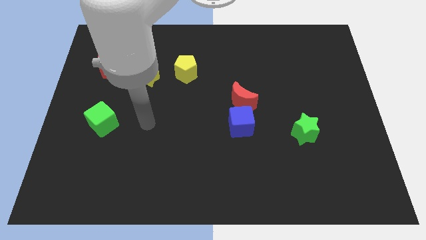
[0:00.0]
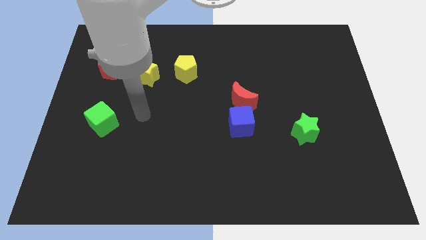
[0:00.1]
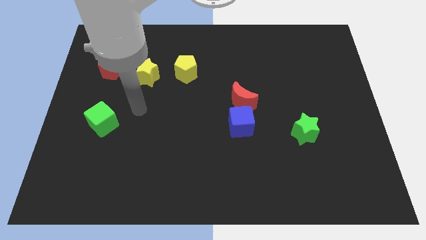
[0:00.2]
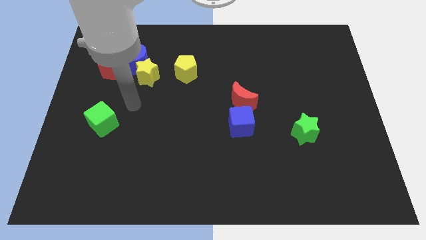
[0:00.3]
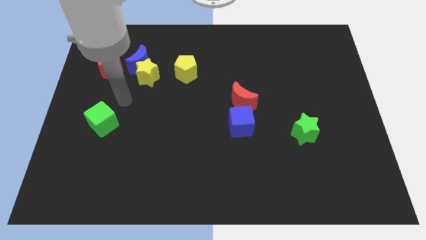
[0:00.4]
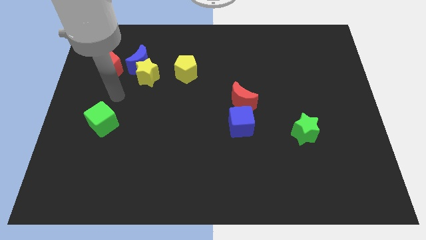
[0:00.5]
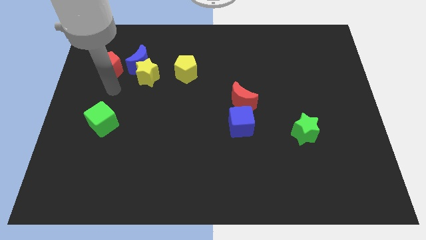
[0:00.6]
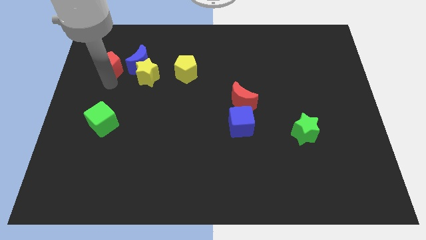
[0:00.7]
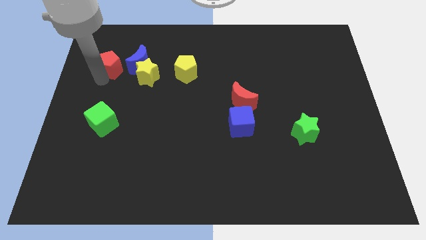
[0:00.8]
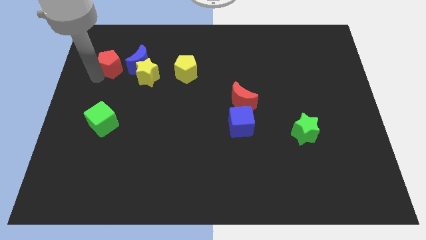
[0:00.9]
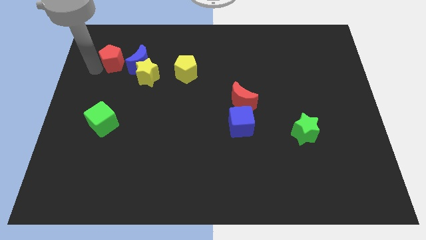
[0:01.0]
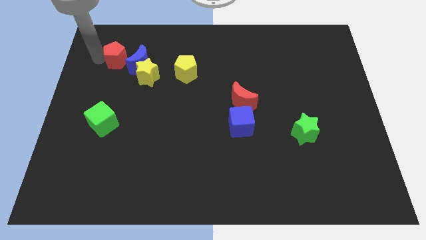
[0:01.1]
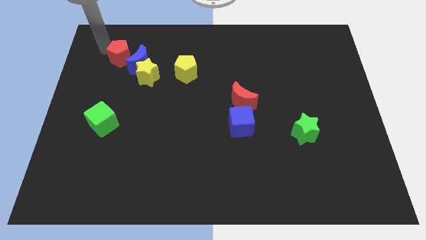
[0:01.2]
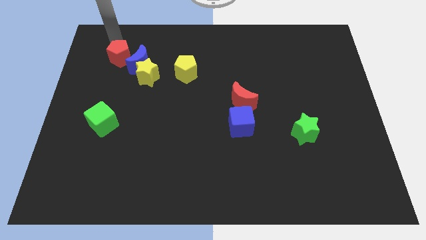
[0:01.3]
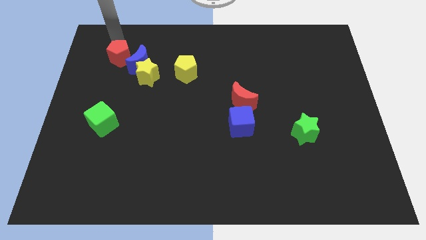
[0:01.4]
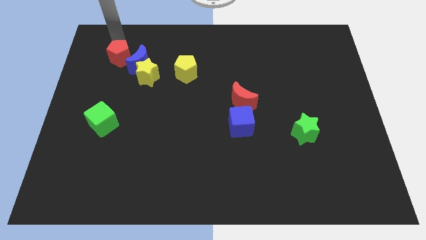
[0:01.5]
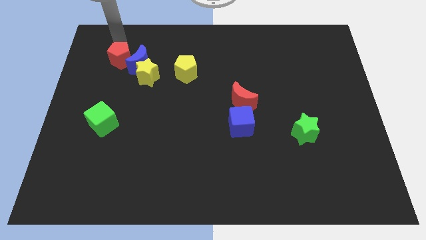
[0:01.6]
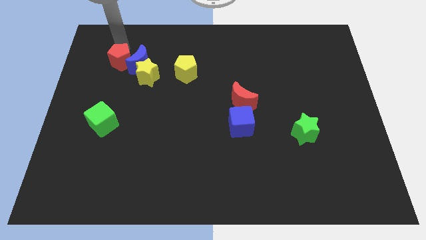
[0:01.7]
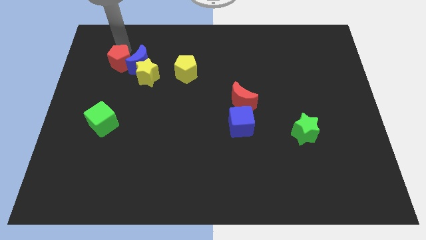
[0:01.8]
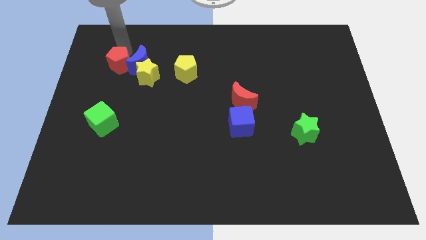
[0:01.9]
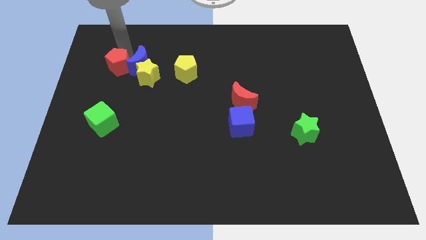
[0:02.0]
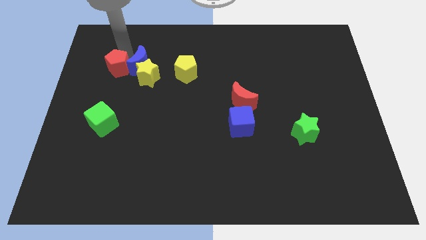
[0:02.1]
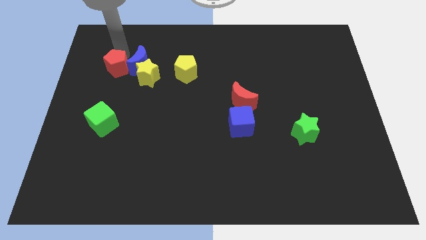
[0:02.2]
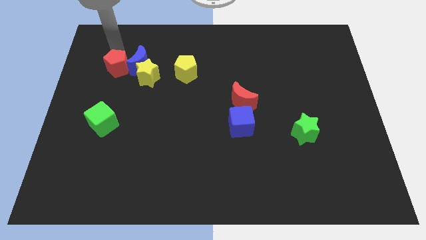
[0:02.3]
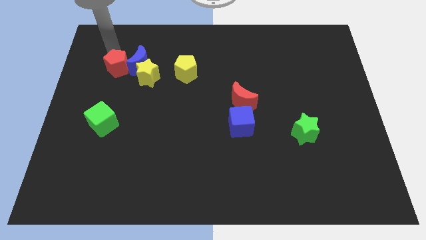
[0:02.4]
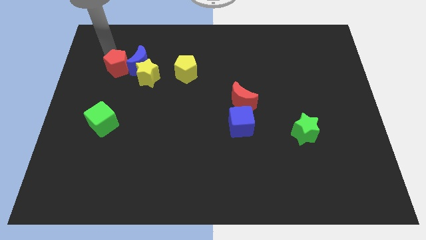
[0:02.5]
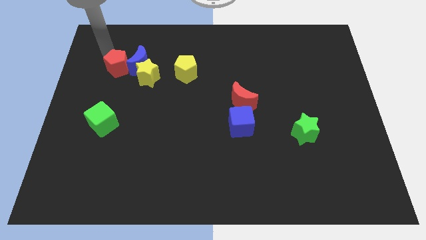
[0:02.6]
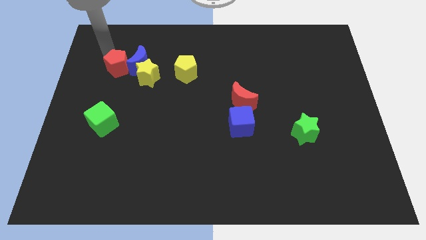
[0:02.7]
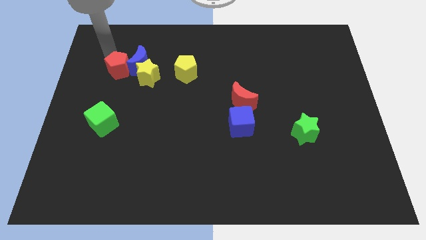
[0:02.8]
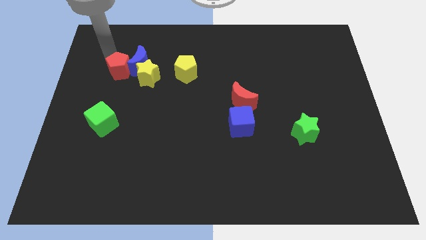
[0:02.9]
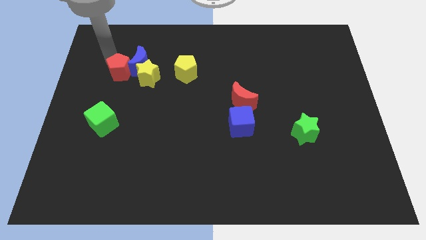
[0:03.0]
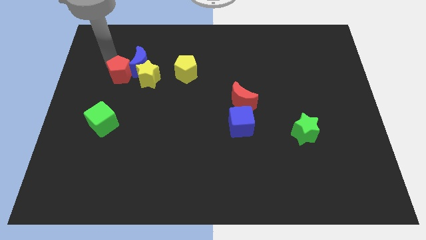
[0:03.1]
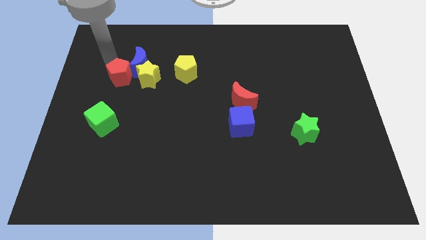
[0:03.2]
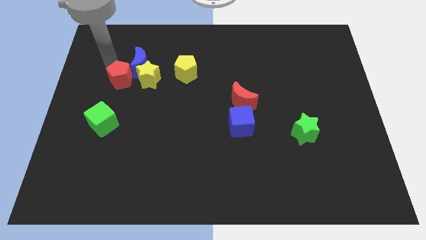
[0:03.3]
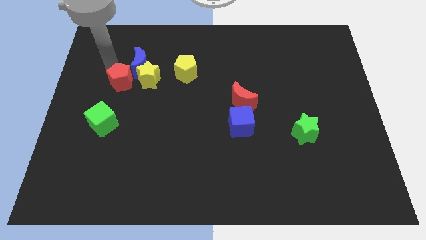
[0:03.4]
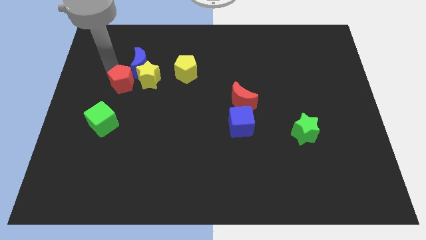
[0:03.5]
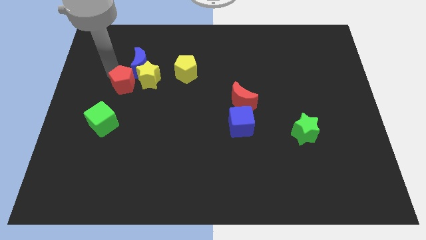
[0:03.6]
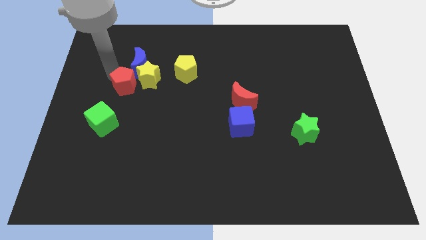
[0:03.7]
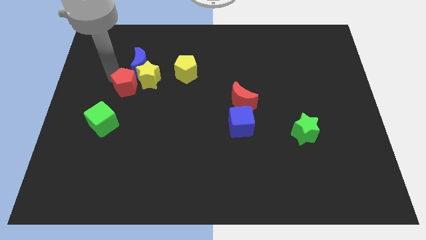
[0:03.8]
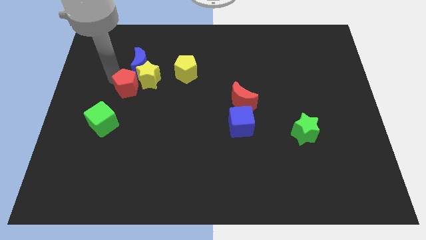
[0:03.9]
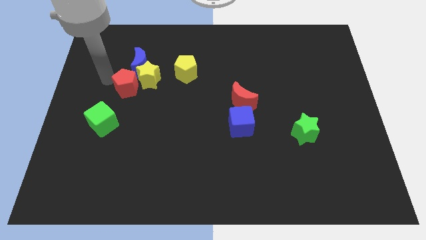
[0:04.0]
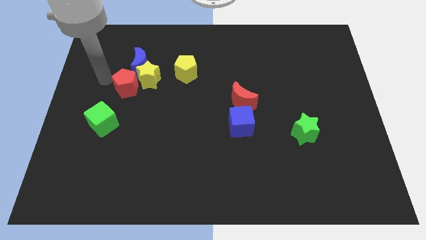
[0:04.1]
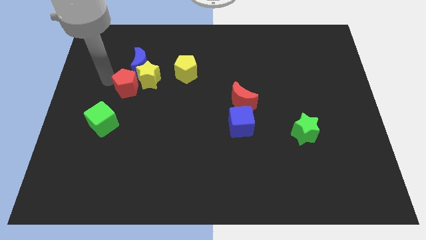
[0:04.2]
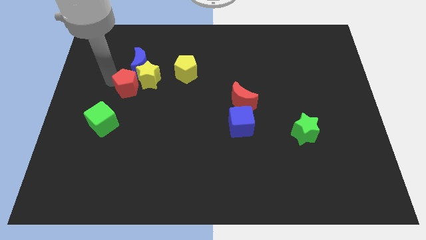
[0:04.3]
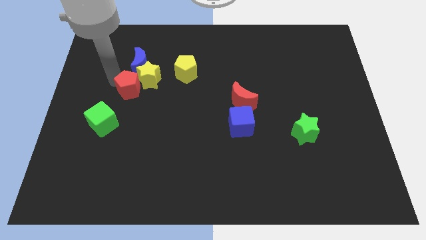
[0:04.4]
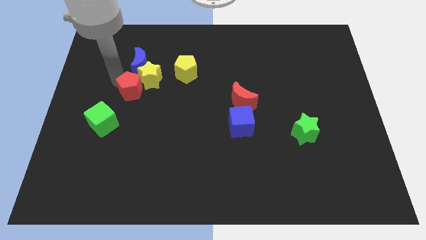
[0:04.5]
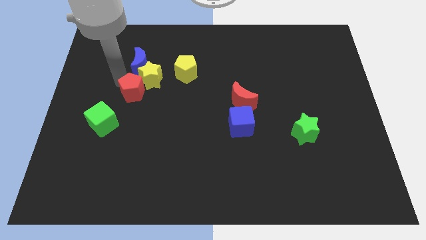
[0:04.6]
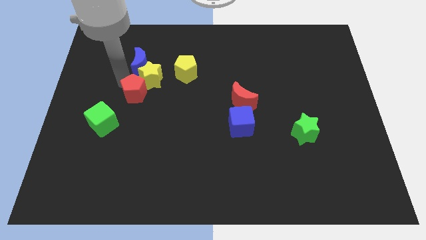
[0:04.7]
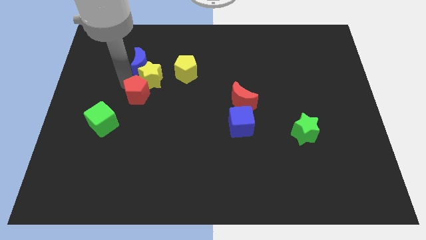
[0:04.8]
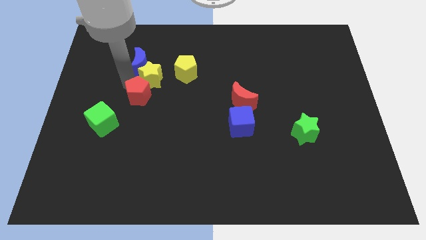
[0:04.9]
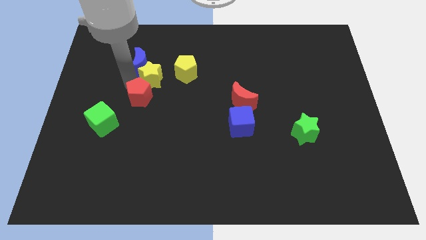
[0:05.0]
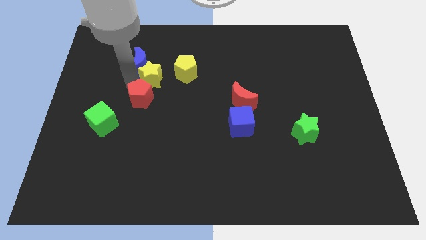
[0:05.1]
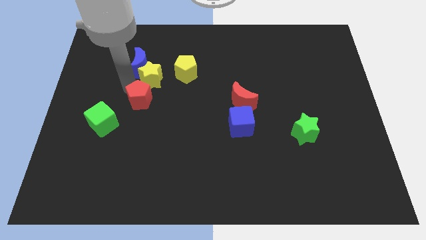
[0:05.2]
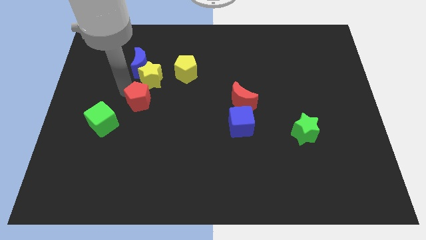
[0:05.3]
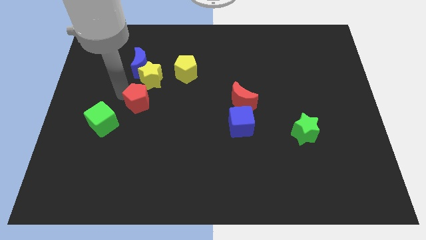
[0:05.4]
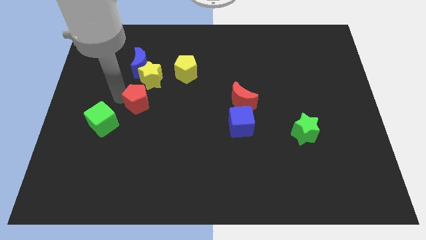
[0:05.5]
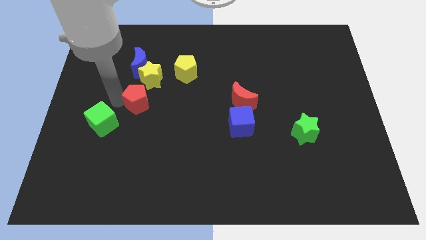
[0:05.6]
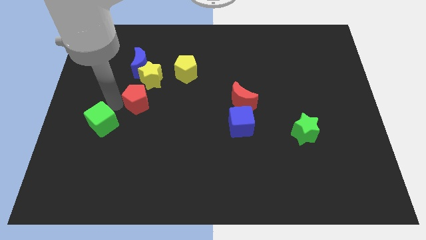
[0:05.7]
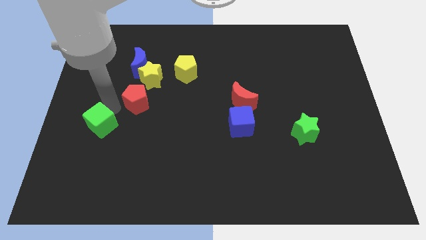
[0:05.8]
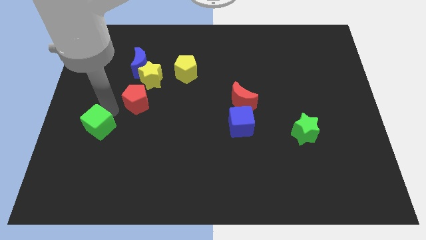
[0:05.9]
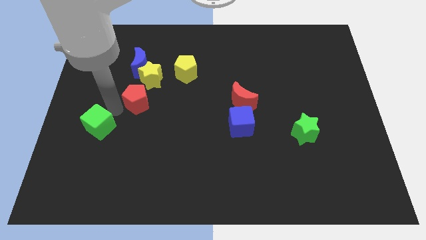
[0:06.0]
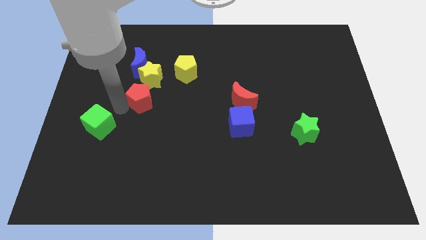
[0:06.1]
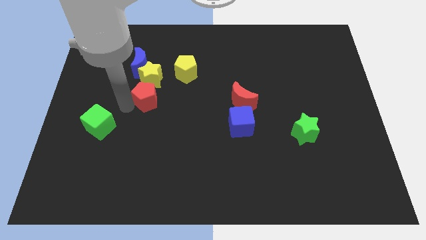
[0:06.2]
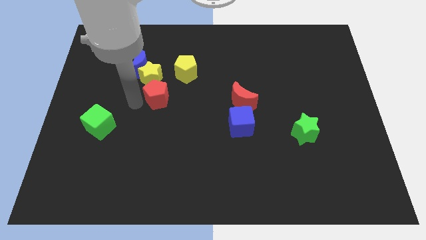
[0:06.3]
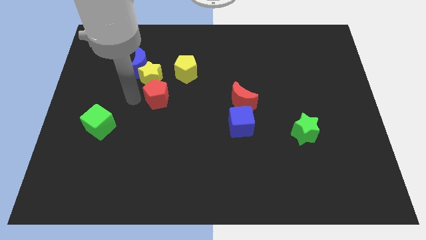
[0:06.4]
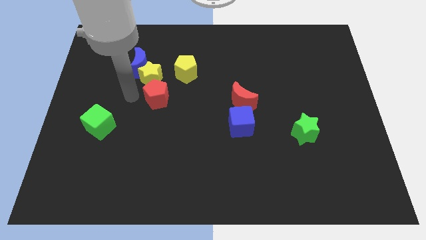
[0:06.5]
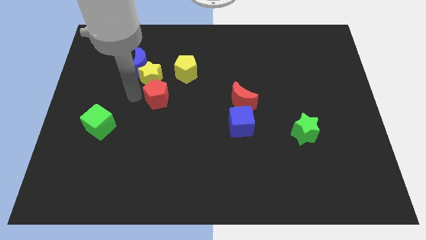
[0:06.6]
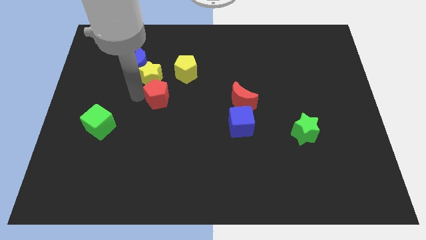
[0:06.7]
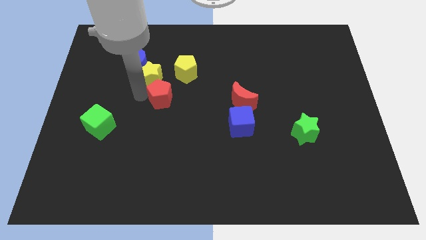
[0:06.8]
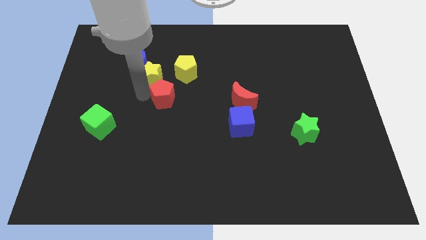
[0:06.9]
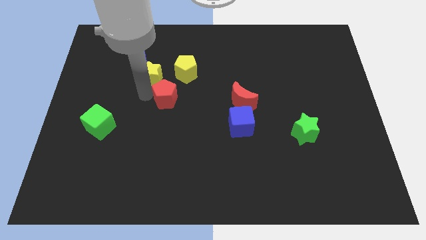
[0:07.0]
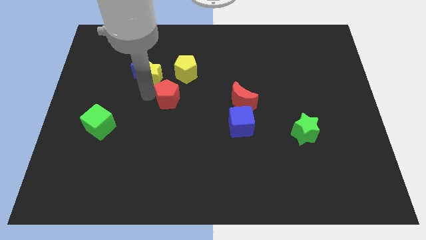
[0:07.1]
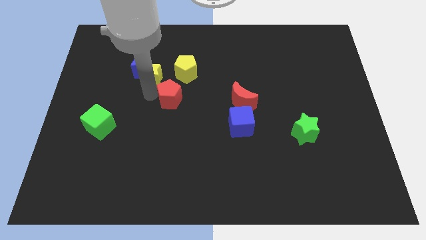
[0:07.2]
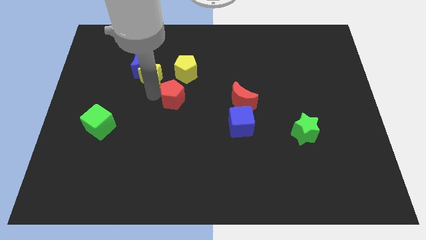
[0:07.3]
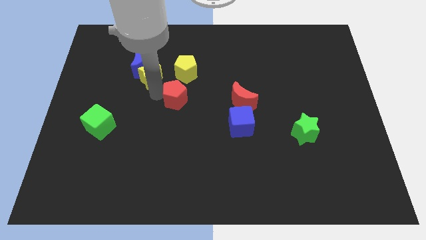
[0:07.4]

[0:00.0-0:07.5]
push the red pentagon to the left side of the red moon
